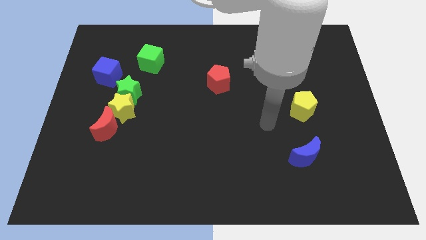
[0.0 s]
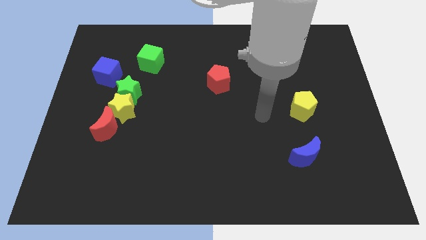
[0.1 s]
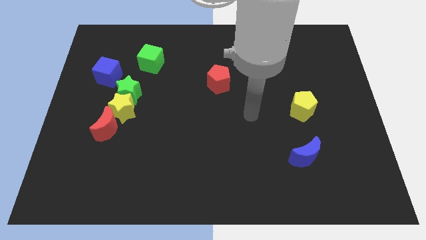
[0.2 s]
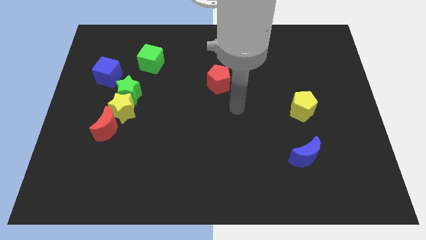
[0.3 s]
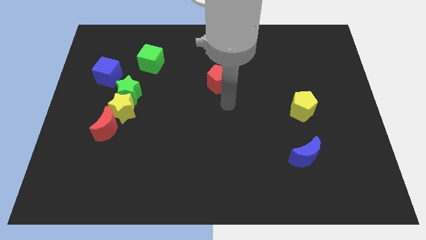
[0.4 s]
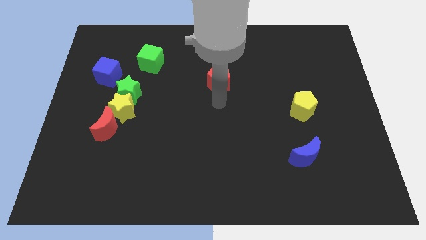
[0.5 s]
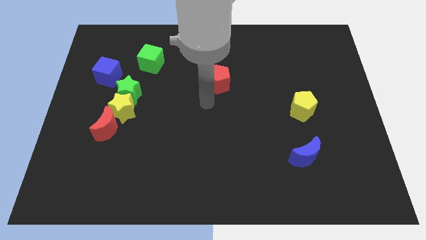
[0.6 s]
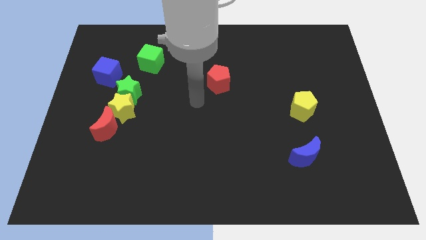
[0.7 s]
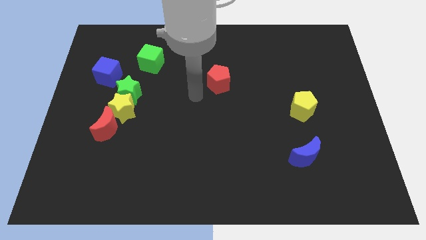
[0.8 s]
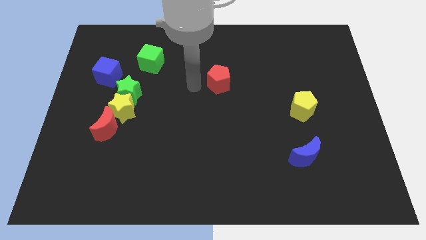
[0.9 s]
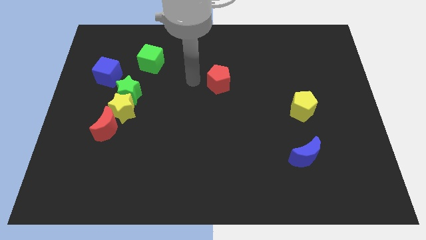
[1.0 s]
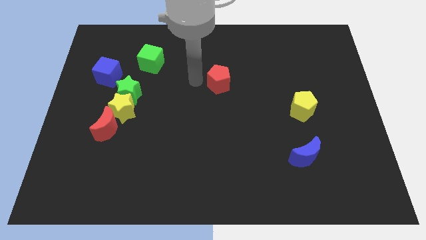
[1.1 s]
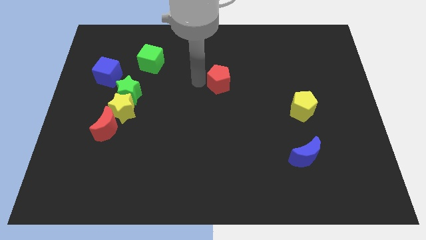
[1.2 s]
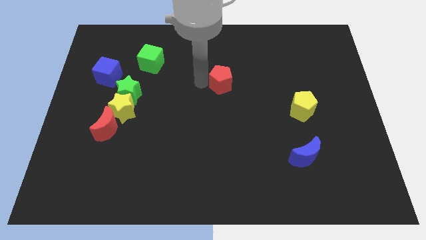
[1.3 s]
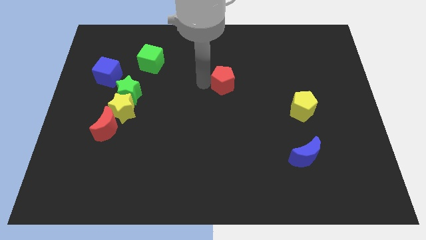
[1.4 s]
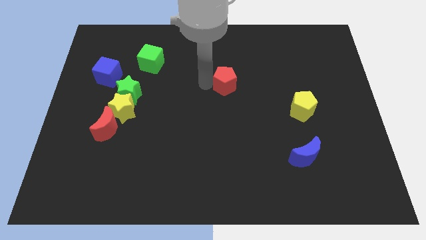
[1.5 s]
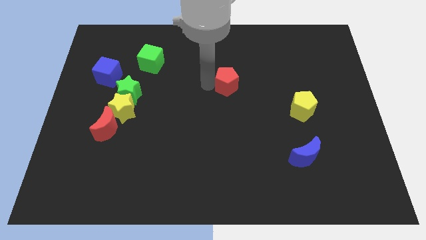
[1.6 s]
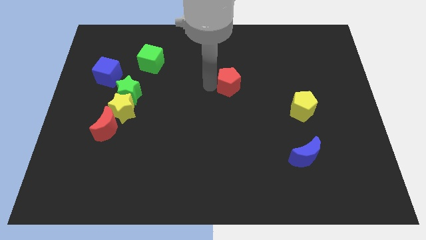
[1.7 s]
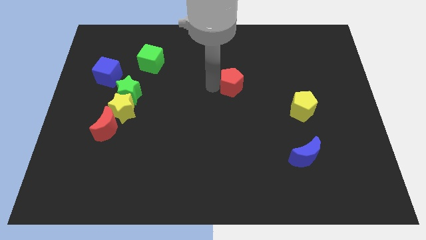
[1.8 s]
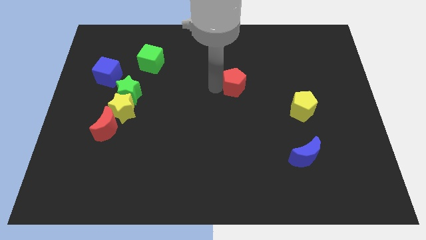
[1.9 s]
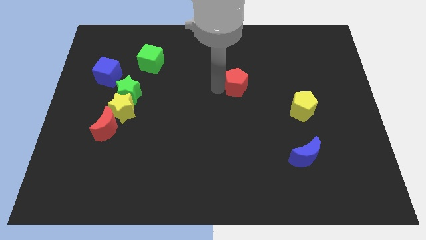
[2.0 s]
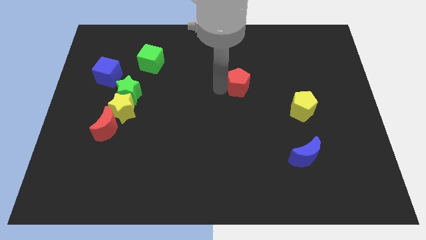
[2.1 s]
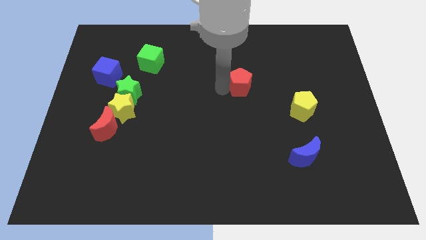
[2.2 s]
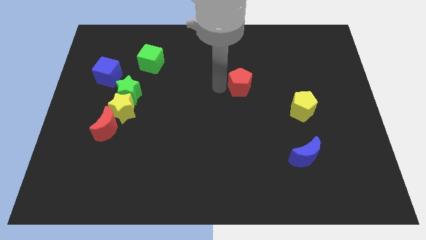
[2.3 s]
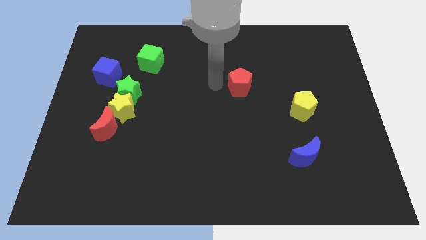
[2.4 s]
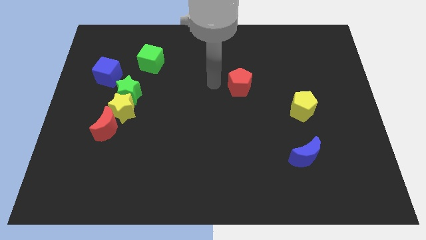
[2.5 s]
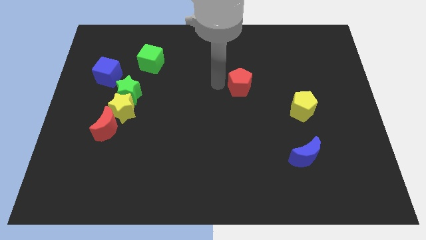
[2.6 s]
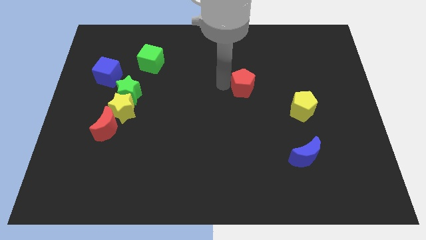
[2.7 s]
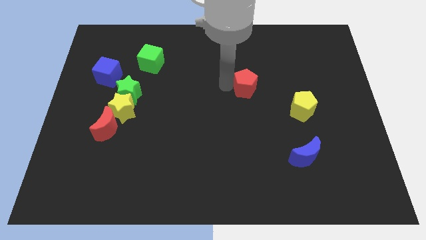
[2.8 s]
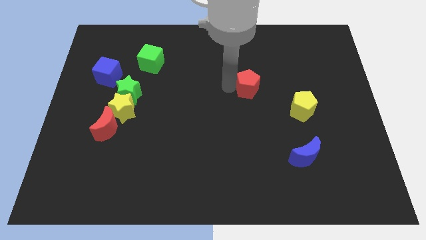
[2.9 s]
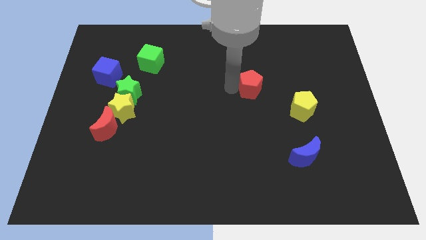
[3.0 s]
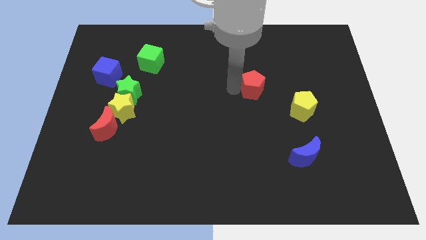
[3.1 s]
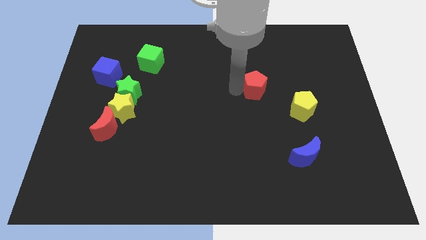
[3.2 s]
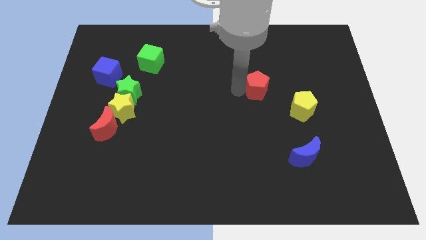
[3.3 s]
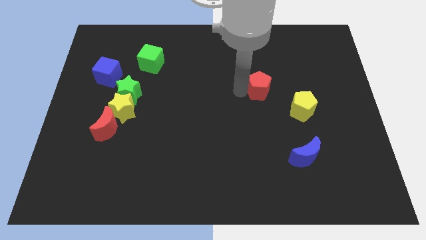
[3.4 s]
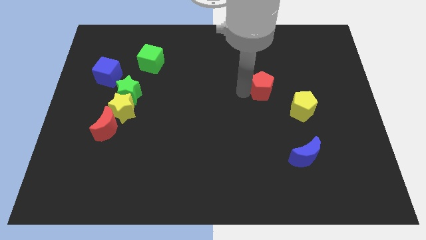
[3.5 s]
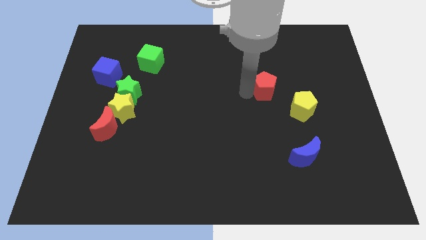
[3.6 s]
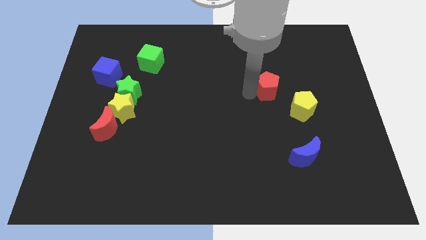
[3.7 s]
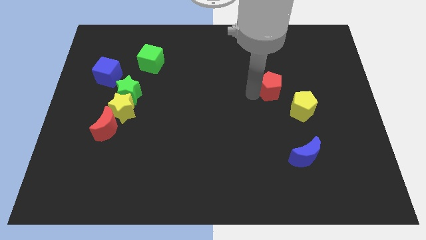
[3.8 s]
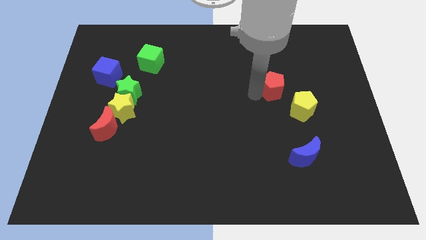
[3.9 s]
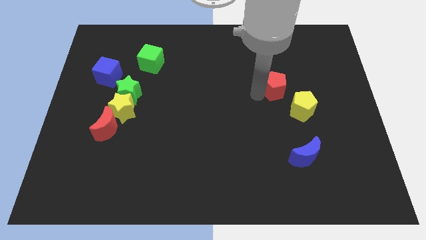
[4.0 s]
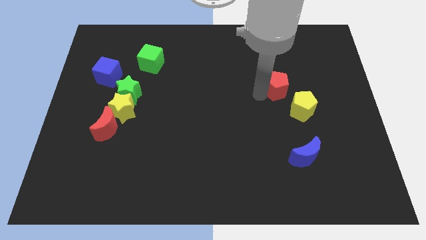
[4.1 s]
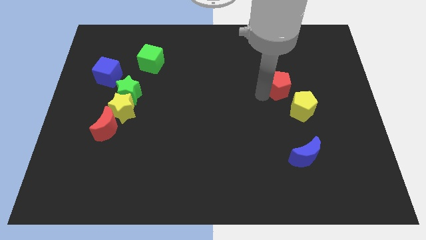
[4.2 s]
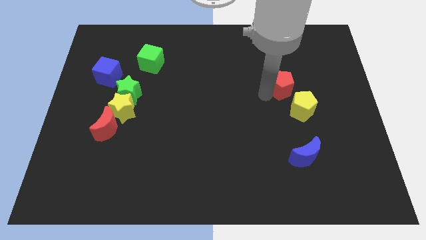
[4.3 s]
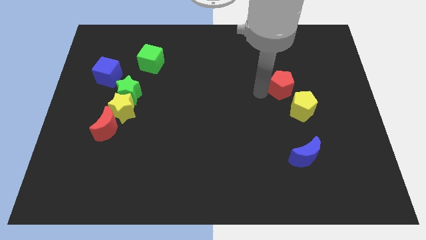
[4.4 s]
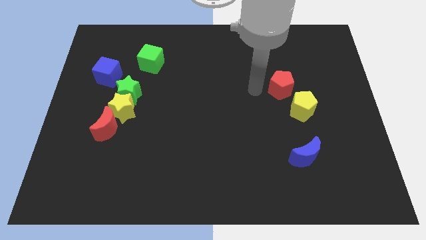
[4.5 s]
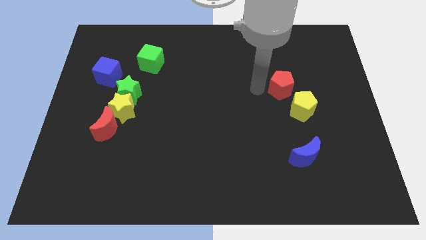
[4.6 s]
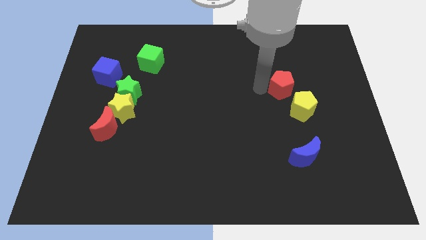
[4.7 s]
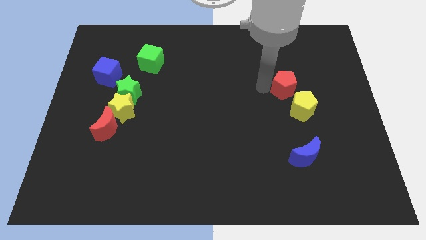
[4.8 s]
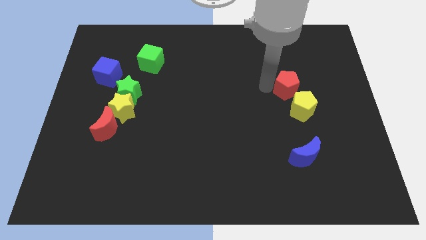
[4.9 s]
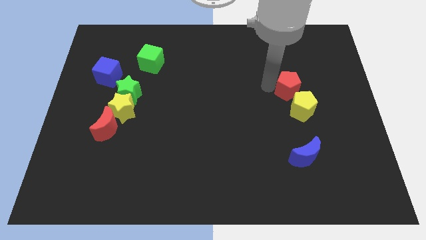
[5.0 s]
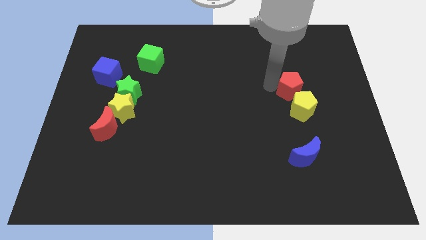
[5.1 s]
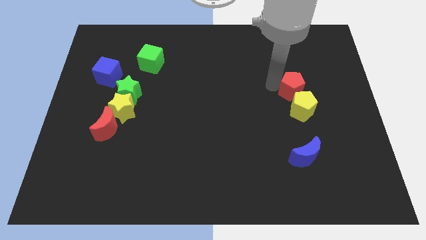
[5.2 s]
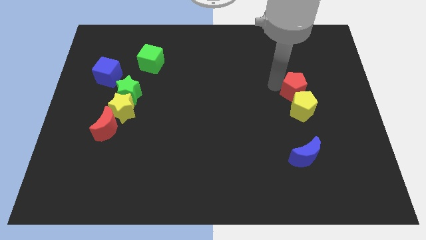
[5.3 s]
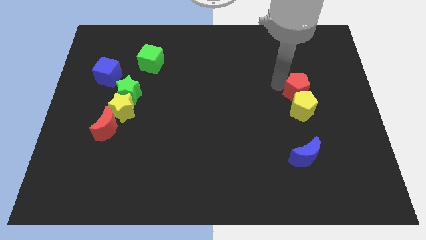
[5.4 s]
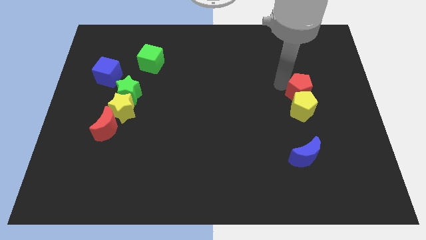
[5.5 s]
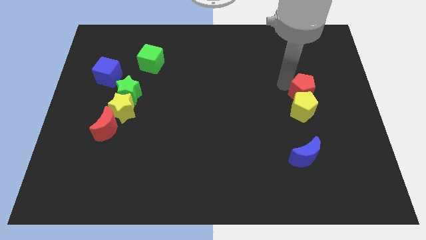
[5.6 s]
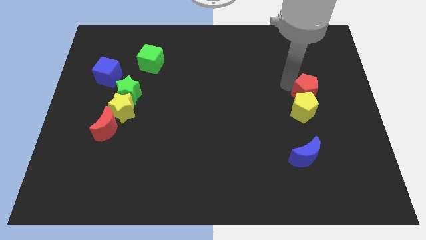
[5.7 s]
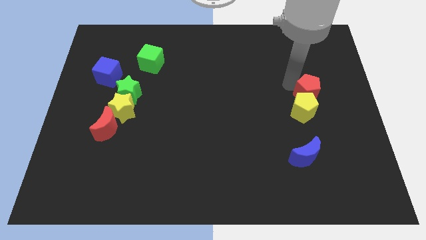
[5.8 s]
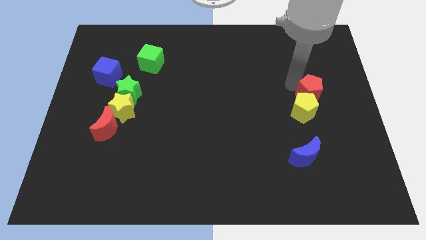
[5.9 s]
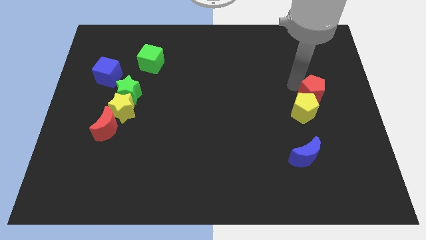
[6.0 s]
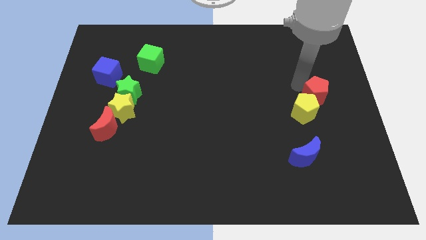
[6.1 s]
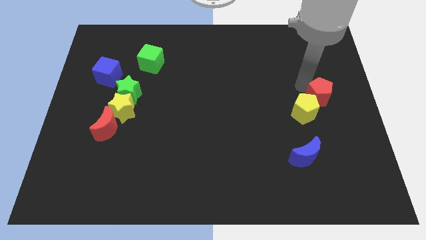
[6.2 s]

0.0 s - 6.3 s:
put the red pentagon to the center right
